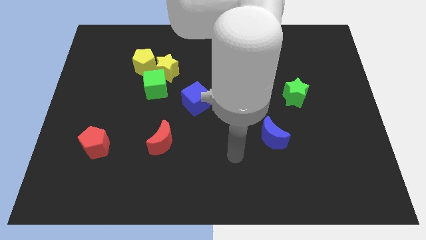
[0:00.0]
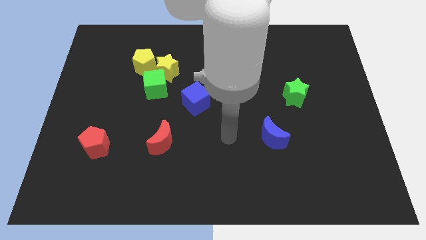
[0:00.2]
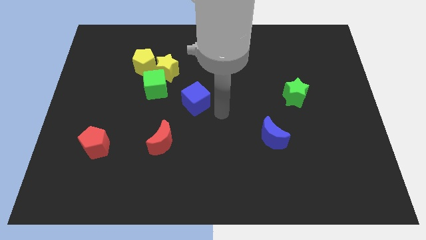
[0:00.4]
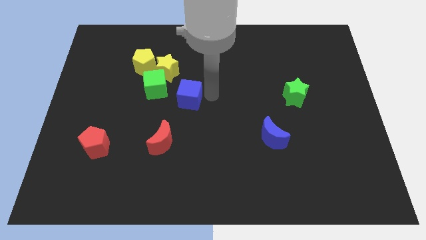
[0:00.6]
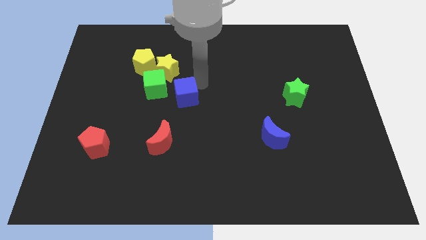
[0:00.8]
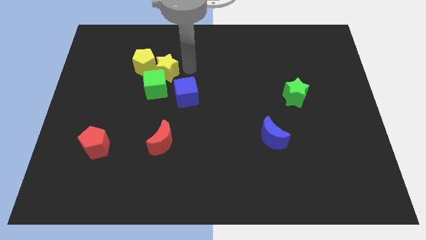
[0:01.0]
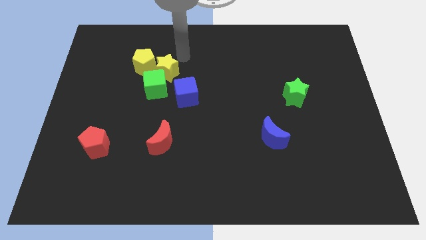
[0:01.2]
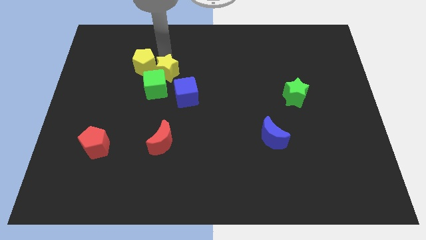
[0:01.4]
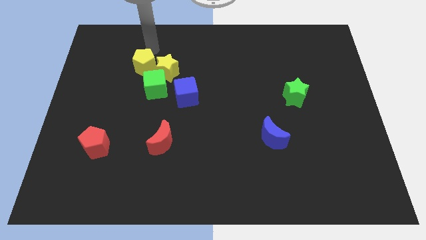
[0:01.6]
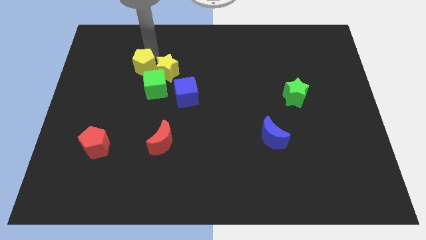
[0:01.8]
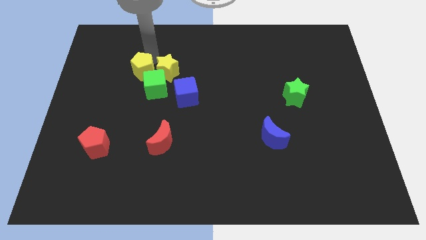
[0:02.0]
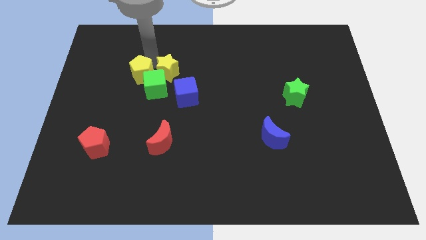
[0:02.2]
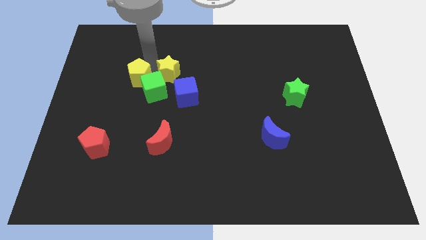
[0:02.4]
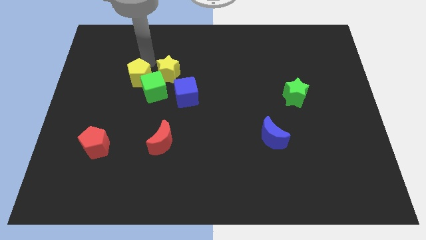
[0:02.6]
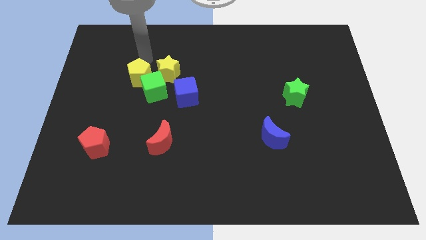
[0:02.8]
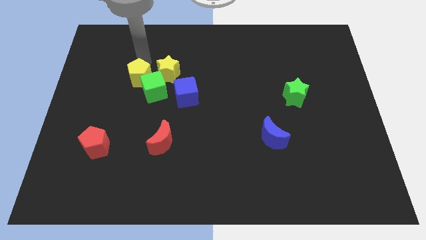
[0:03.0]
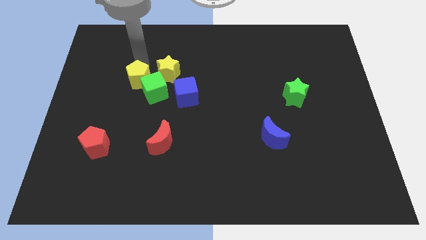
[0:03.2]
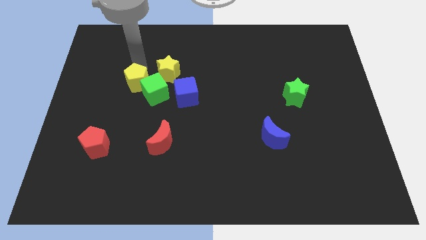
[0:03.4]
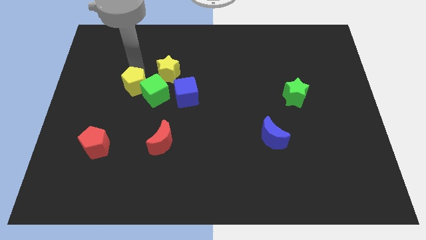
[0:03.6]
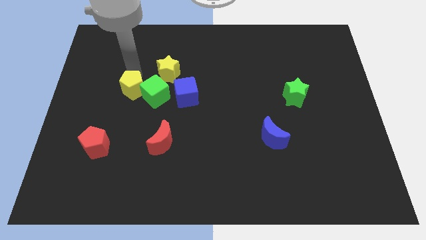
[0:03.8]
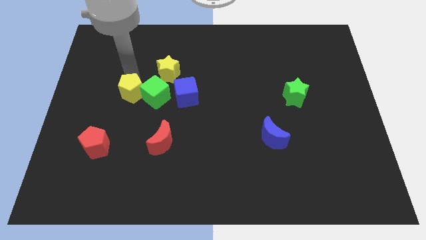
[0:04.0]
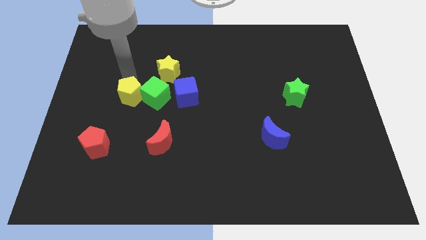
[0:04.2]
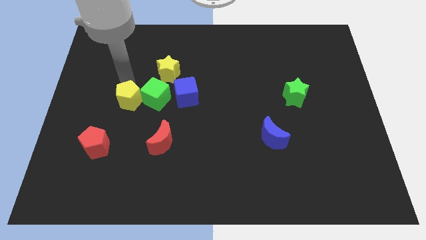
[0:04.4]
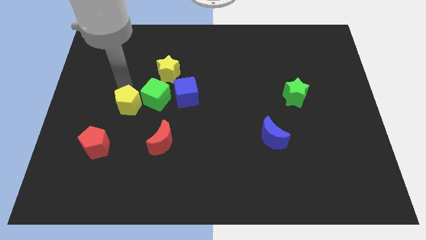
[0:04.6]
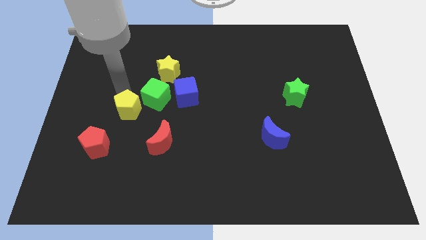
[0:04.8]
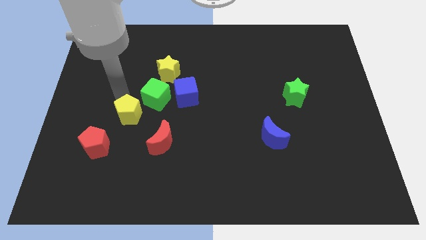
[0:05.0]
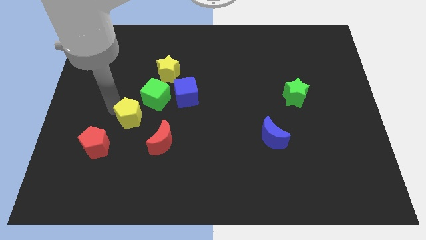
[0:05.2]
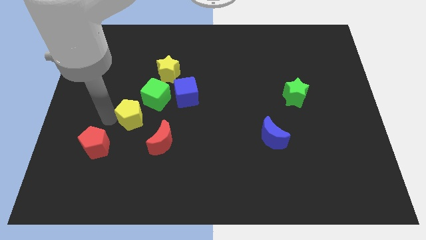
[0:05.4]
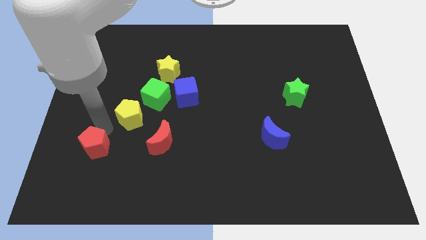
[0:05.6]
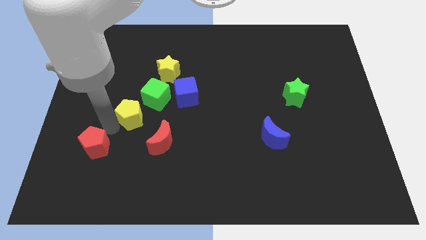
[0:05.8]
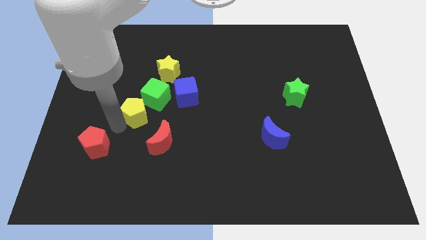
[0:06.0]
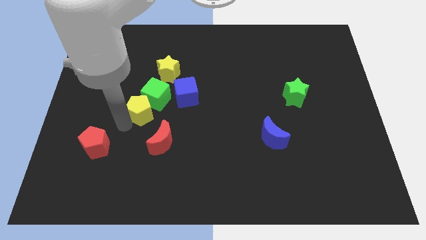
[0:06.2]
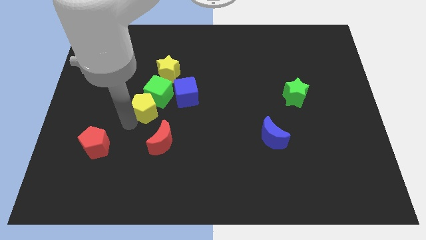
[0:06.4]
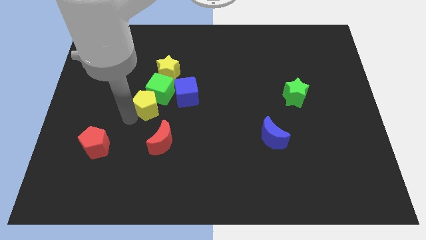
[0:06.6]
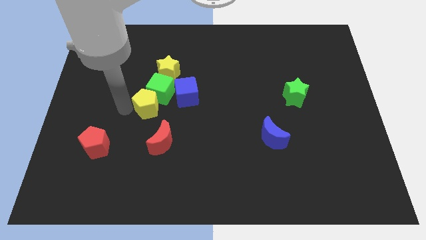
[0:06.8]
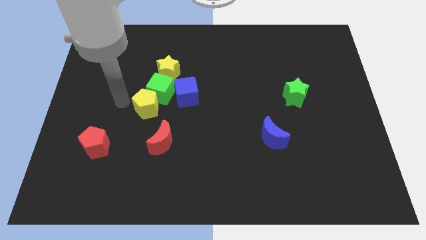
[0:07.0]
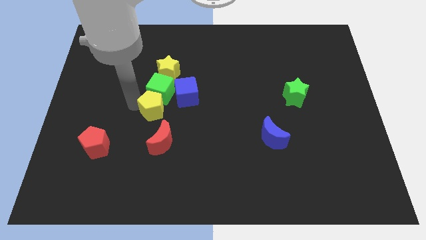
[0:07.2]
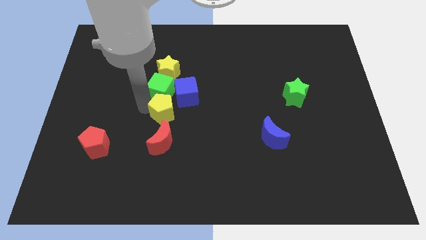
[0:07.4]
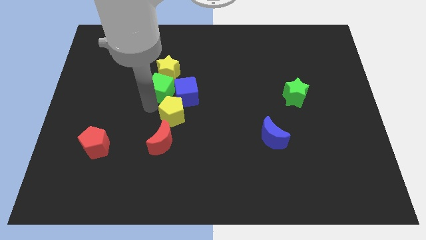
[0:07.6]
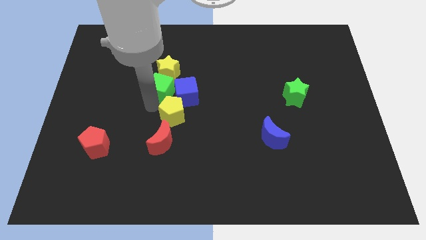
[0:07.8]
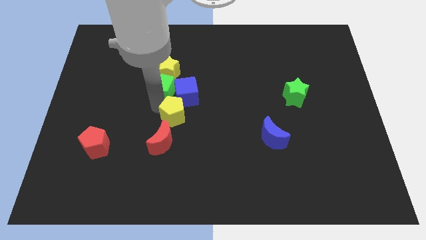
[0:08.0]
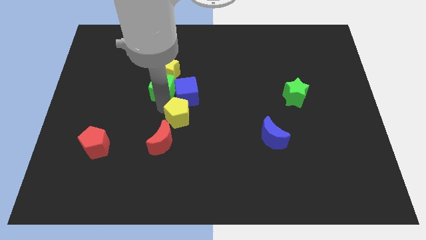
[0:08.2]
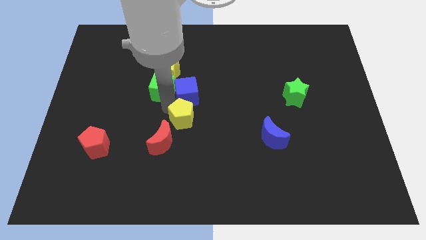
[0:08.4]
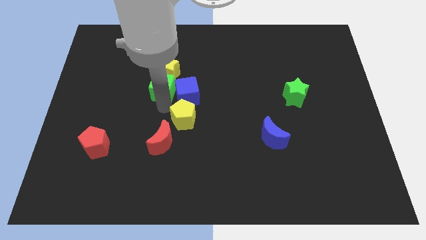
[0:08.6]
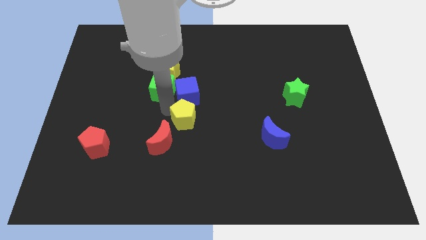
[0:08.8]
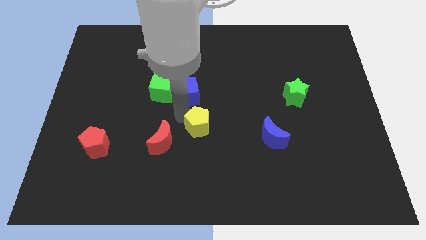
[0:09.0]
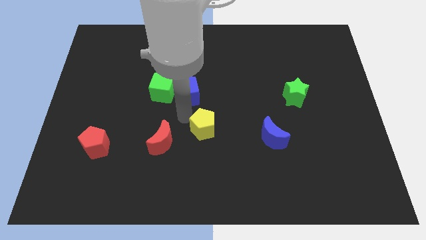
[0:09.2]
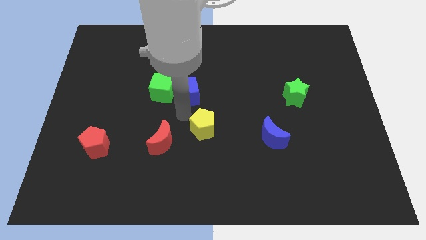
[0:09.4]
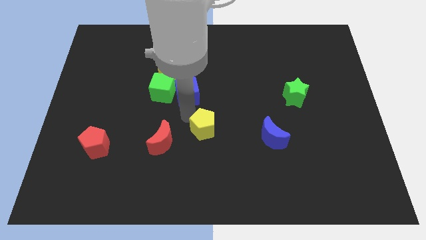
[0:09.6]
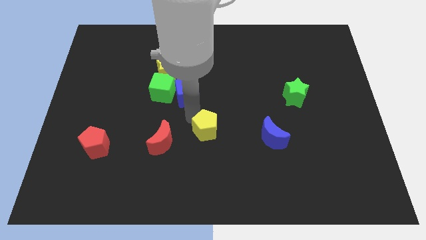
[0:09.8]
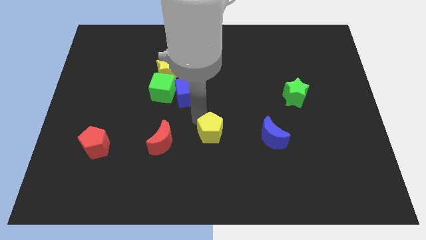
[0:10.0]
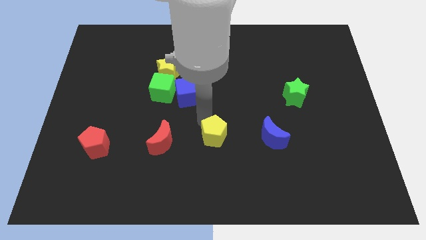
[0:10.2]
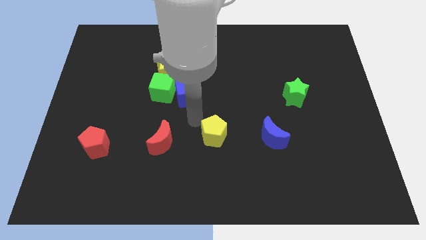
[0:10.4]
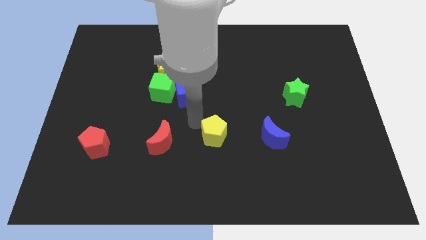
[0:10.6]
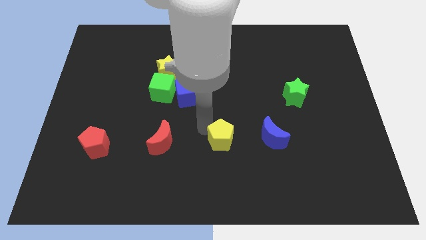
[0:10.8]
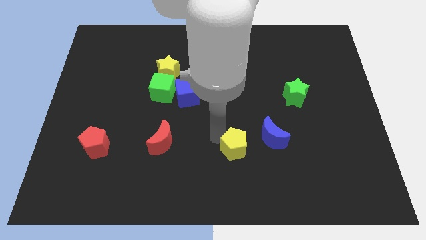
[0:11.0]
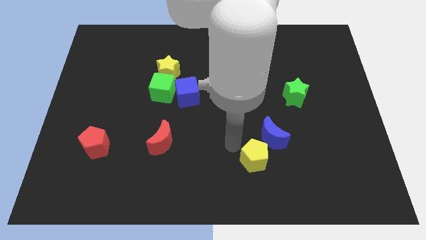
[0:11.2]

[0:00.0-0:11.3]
move the yellow pentagon to the bottom of the blue moon

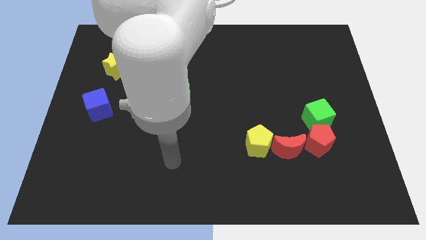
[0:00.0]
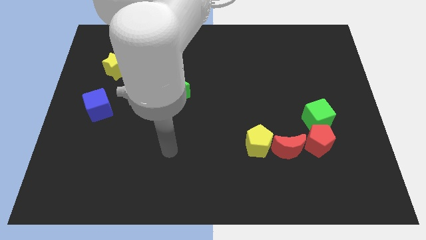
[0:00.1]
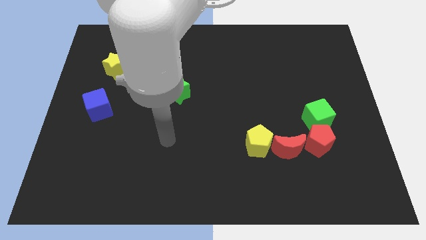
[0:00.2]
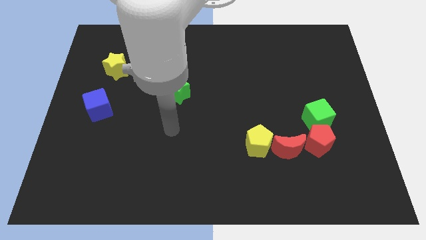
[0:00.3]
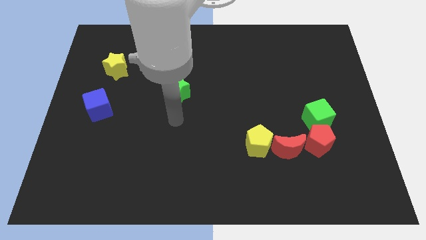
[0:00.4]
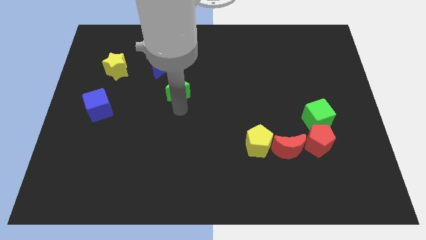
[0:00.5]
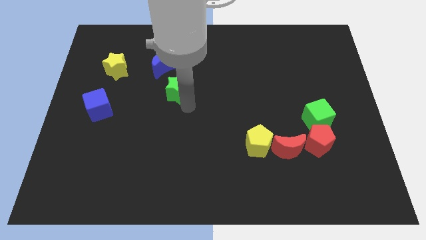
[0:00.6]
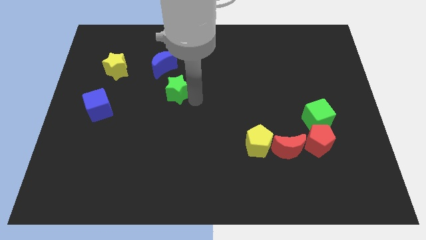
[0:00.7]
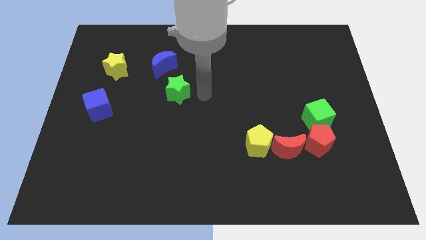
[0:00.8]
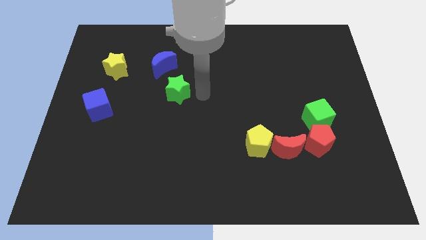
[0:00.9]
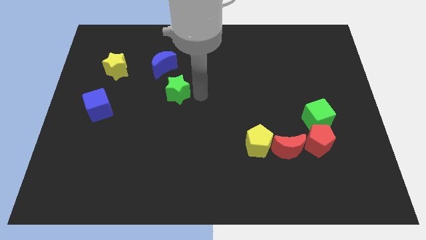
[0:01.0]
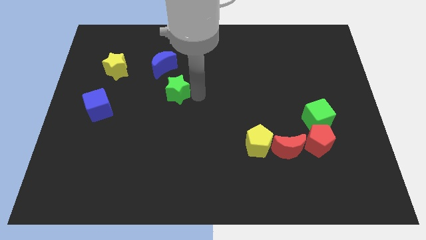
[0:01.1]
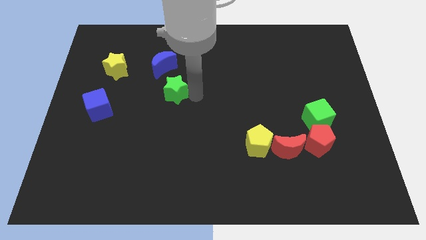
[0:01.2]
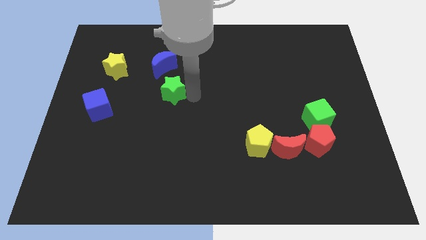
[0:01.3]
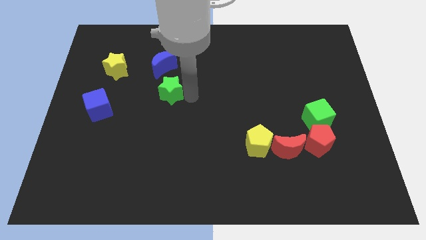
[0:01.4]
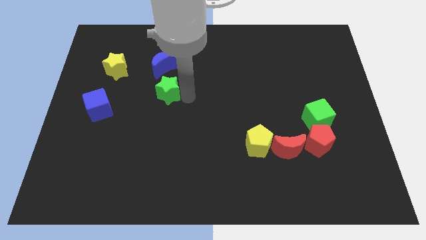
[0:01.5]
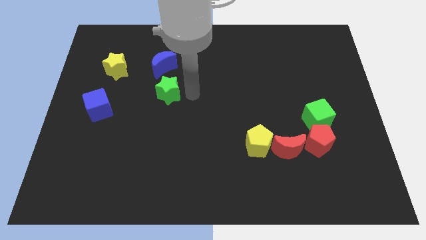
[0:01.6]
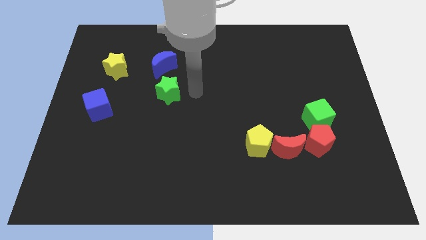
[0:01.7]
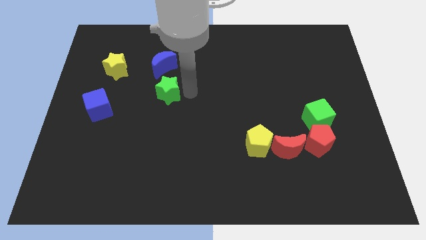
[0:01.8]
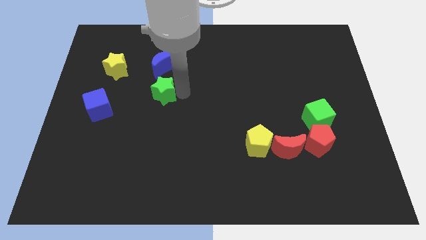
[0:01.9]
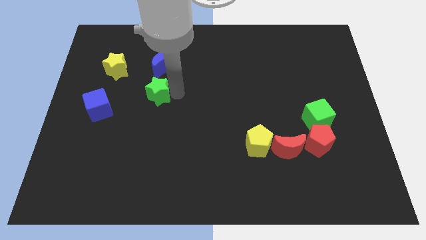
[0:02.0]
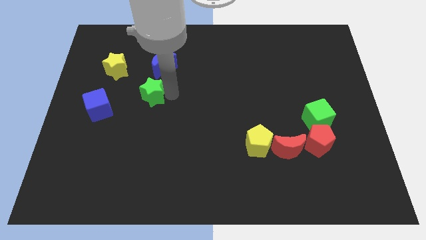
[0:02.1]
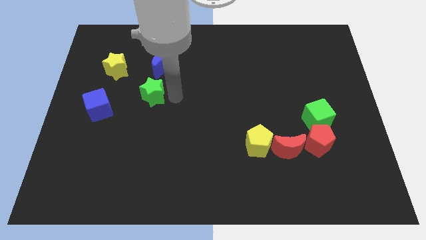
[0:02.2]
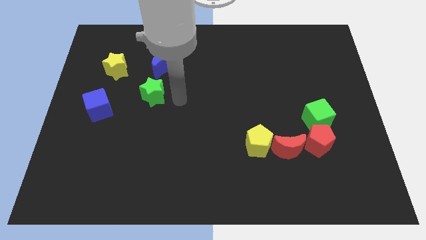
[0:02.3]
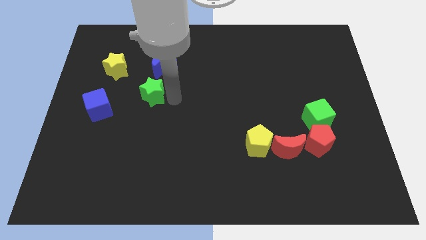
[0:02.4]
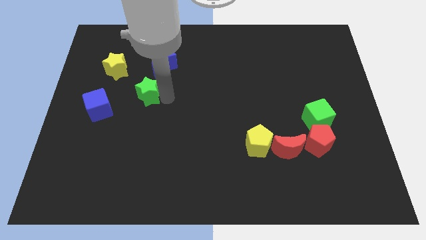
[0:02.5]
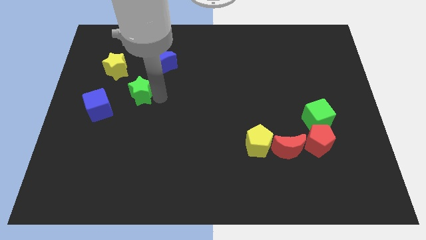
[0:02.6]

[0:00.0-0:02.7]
move the green star to the top right side of the blue cube
